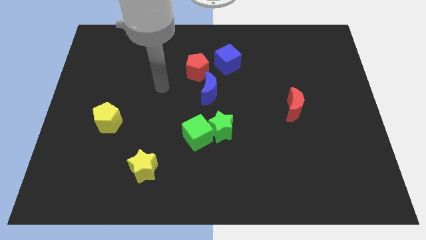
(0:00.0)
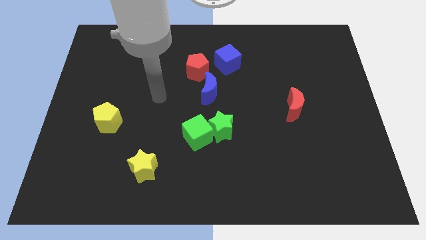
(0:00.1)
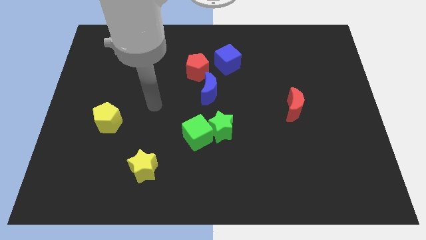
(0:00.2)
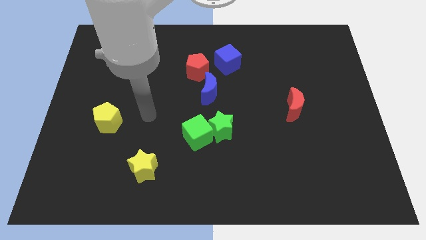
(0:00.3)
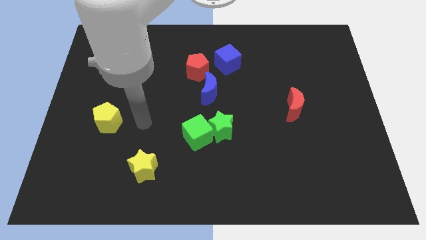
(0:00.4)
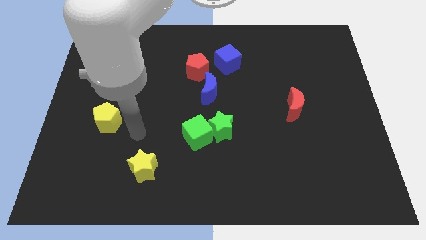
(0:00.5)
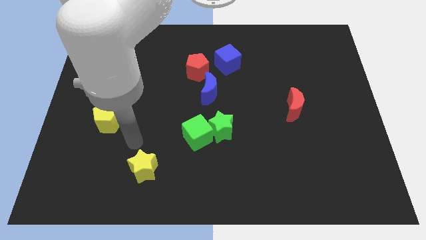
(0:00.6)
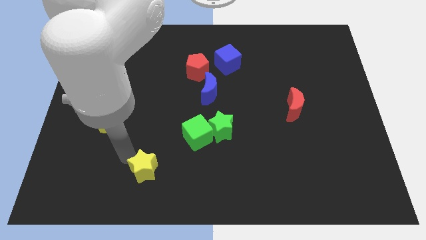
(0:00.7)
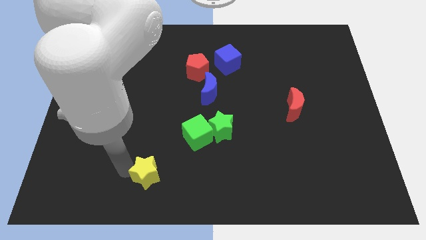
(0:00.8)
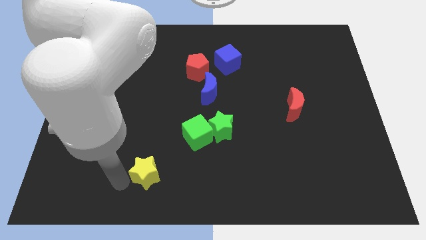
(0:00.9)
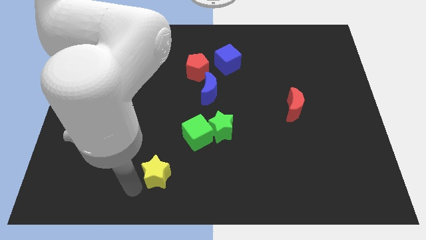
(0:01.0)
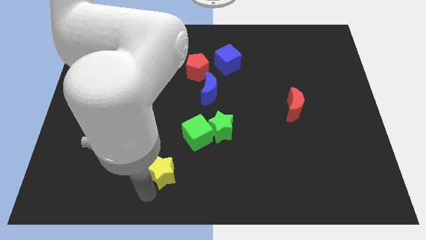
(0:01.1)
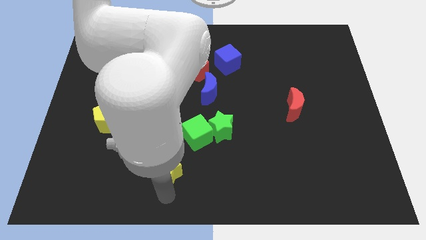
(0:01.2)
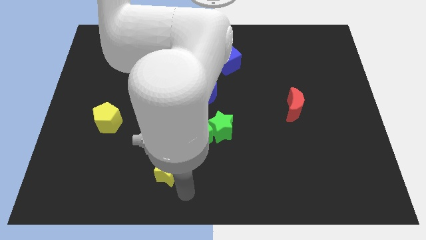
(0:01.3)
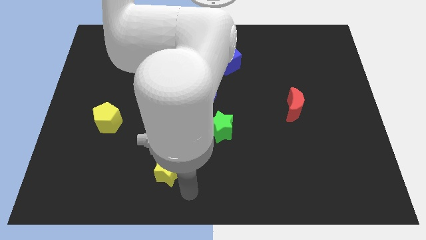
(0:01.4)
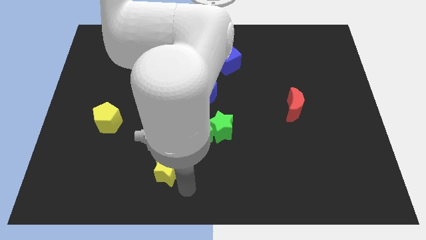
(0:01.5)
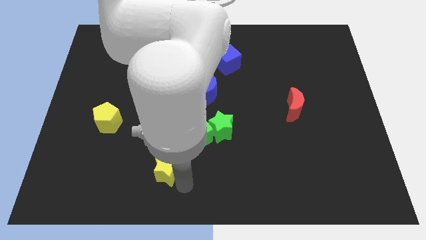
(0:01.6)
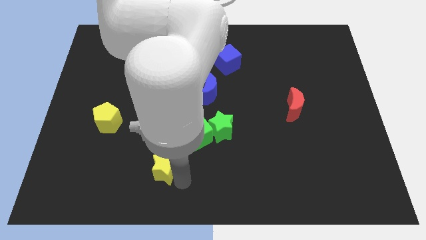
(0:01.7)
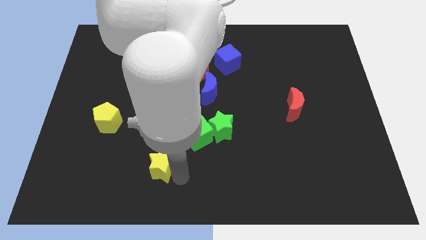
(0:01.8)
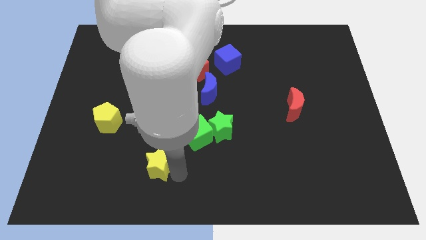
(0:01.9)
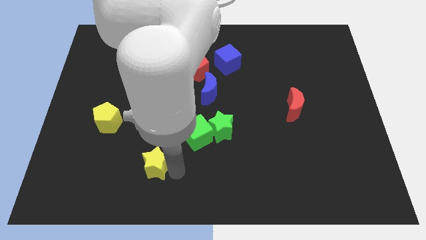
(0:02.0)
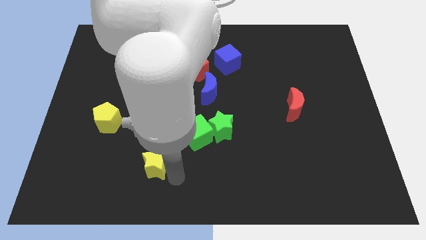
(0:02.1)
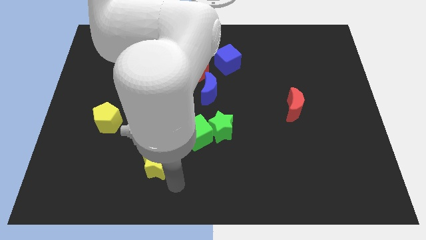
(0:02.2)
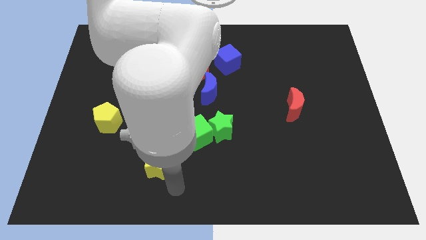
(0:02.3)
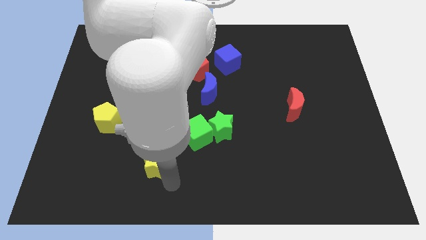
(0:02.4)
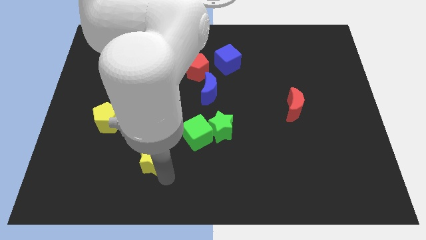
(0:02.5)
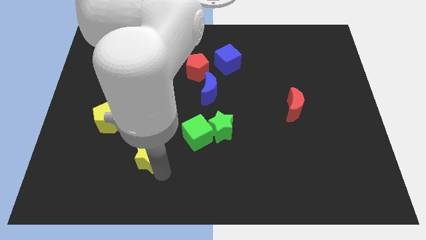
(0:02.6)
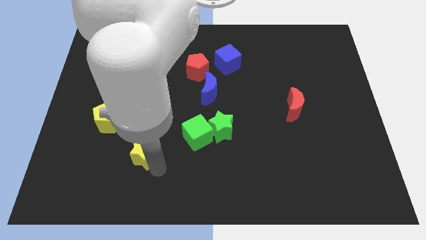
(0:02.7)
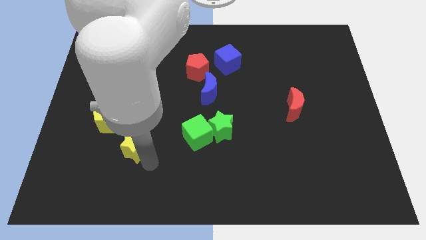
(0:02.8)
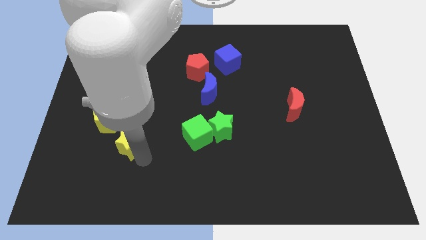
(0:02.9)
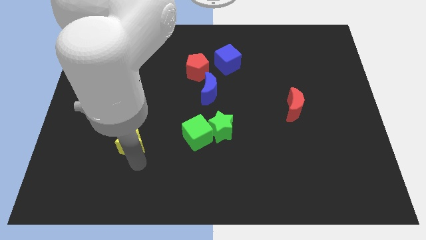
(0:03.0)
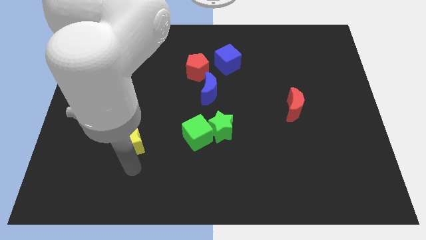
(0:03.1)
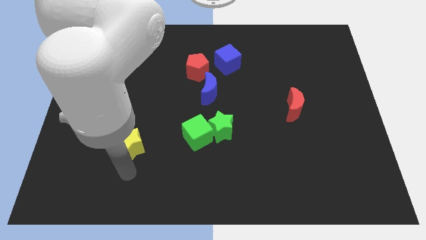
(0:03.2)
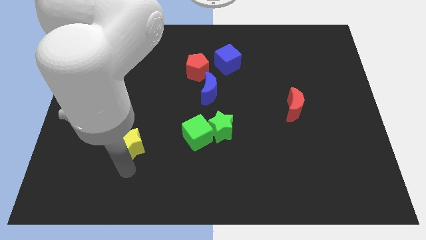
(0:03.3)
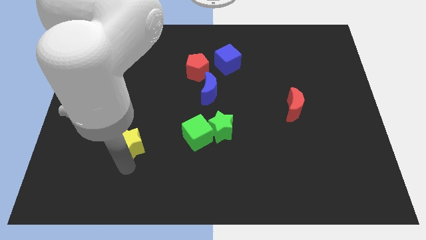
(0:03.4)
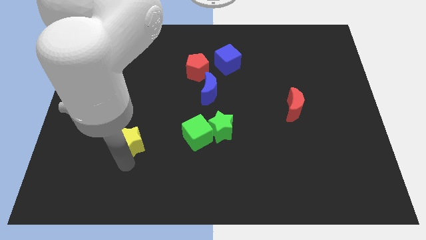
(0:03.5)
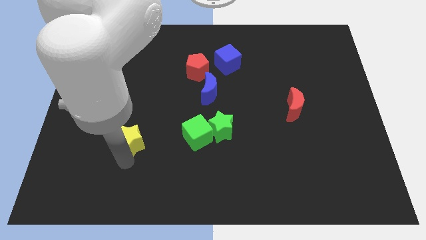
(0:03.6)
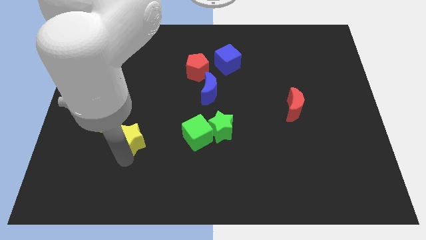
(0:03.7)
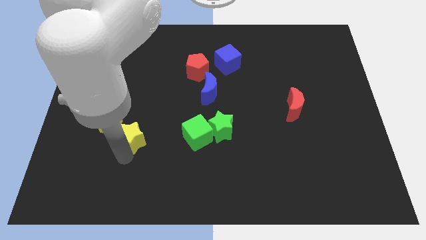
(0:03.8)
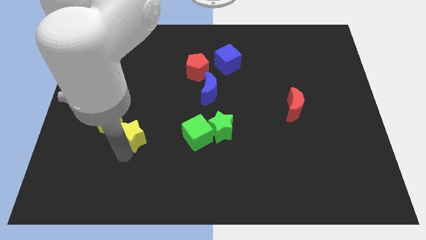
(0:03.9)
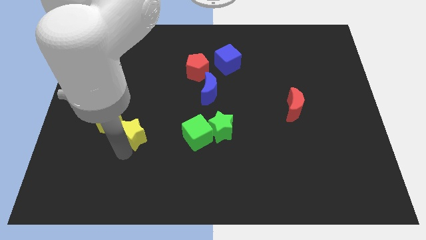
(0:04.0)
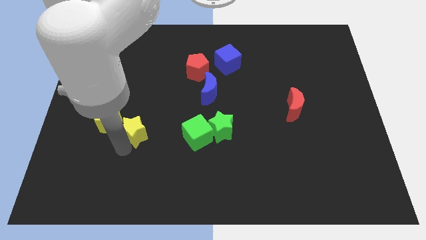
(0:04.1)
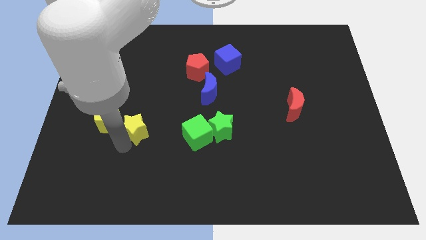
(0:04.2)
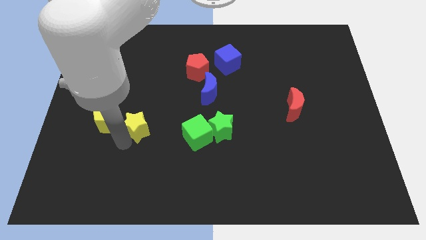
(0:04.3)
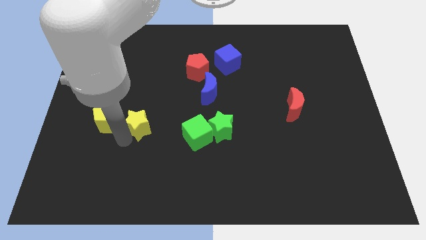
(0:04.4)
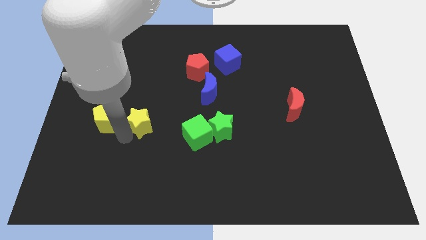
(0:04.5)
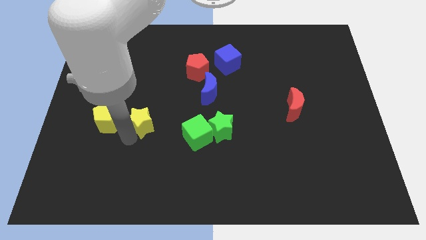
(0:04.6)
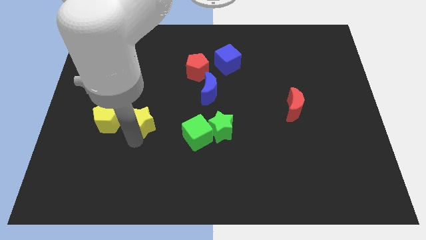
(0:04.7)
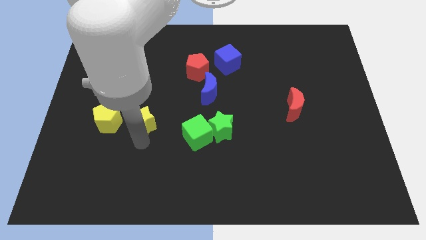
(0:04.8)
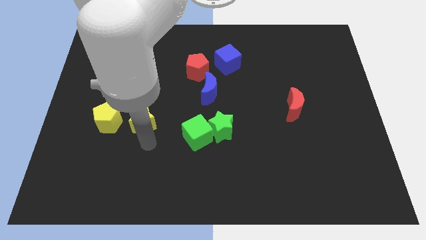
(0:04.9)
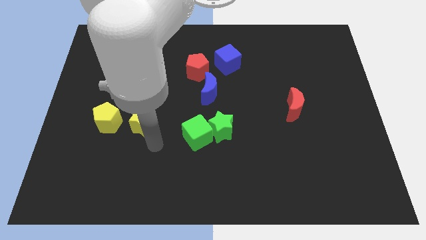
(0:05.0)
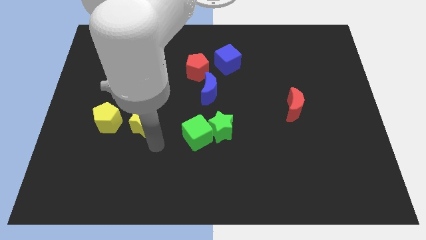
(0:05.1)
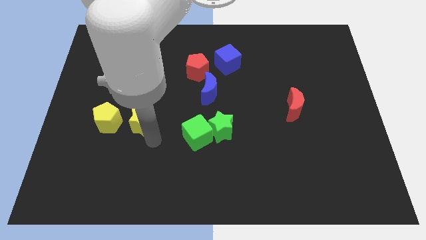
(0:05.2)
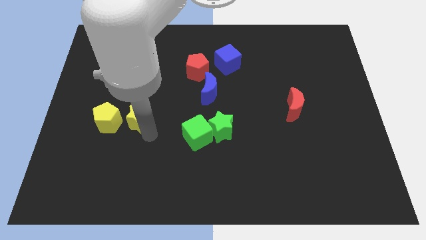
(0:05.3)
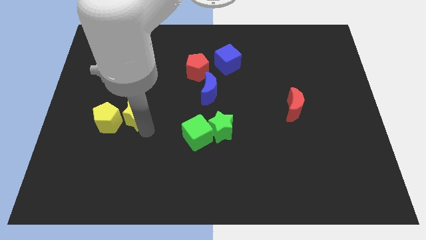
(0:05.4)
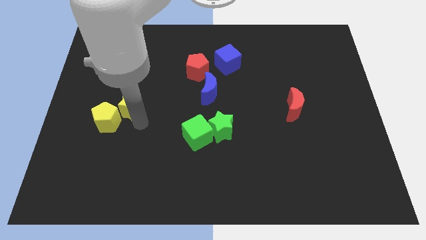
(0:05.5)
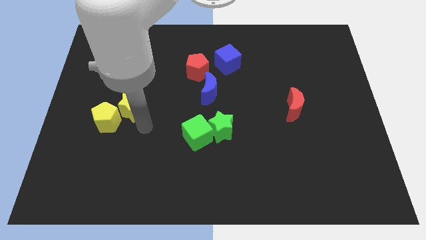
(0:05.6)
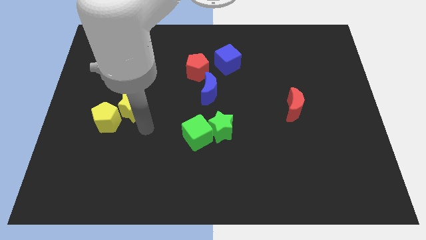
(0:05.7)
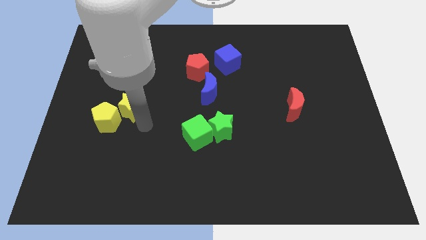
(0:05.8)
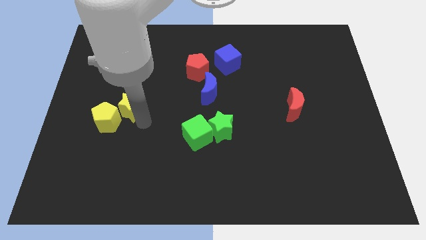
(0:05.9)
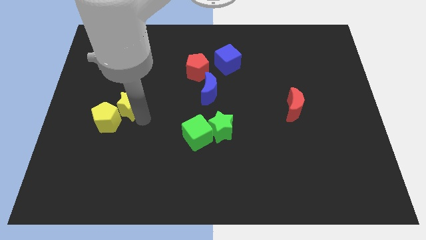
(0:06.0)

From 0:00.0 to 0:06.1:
move the yellow star to the top side of the yellow pentagon

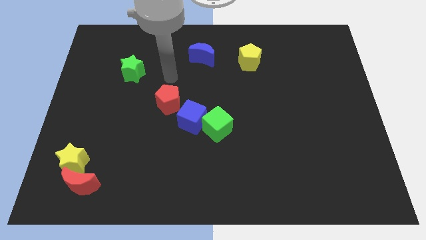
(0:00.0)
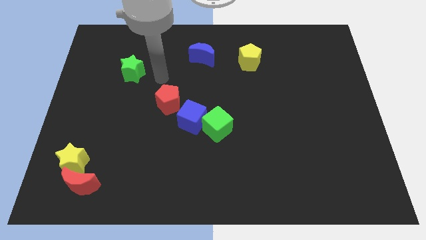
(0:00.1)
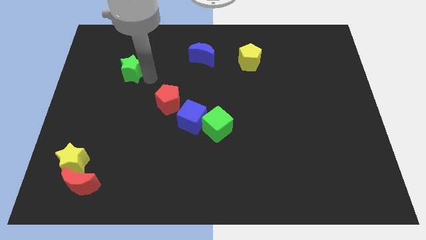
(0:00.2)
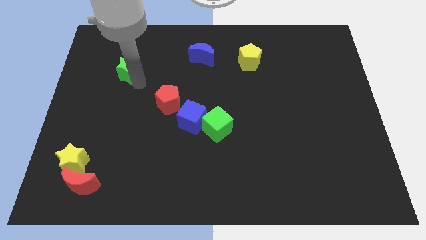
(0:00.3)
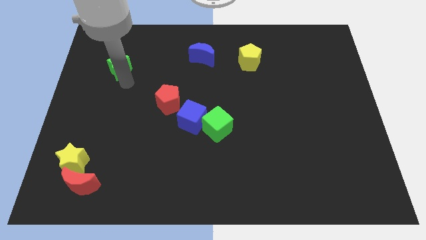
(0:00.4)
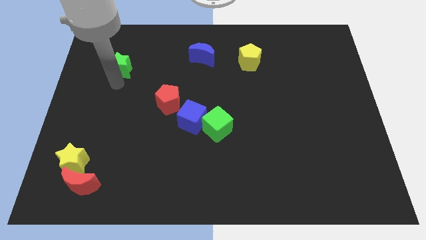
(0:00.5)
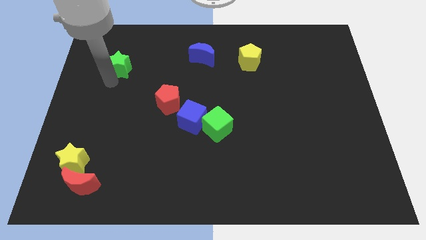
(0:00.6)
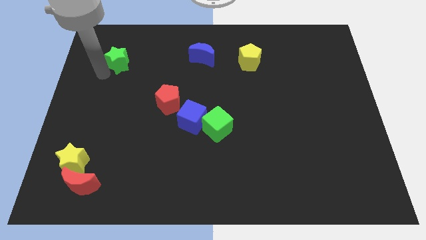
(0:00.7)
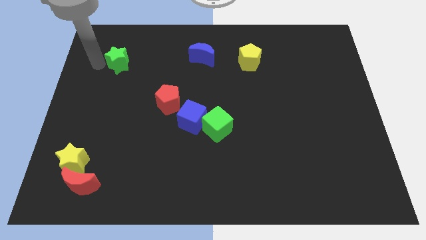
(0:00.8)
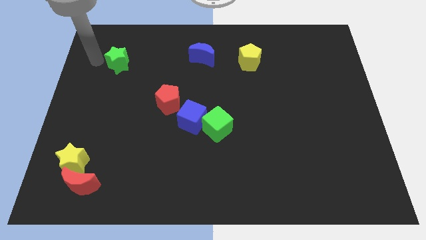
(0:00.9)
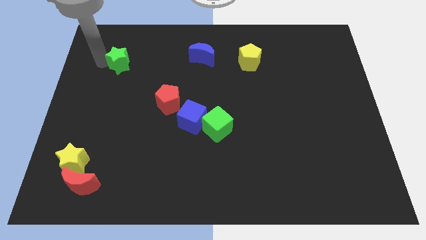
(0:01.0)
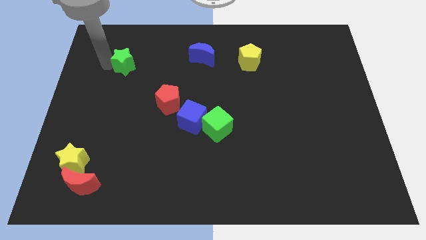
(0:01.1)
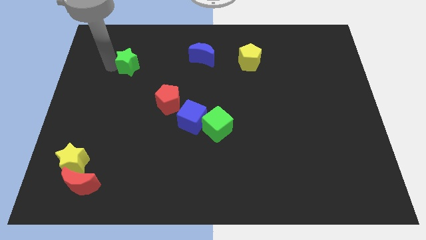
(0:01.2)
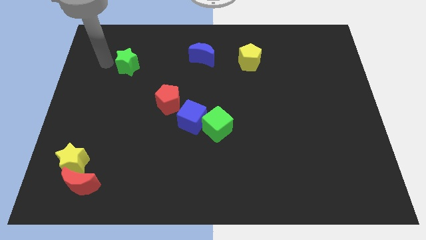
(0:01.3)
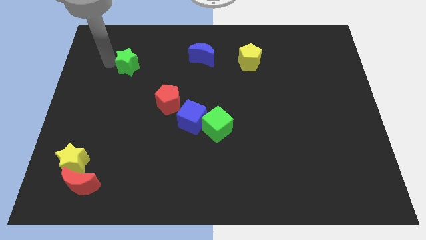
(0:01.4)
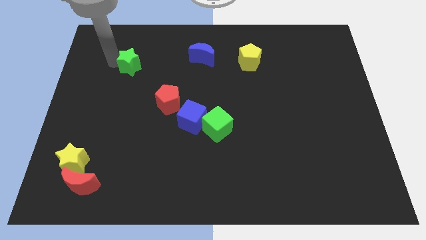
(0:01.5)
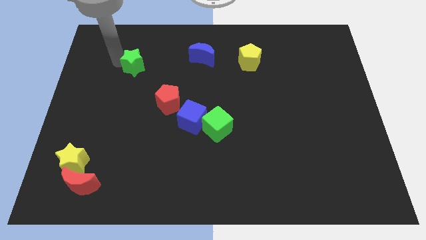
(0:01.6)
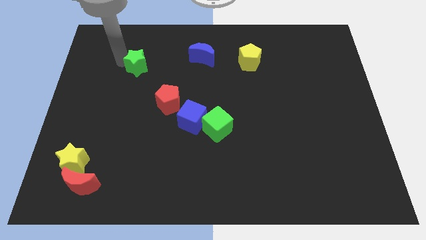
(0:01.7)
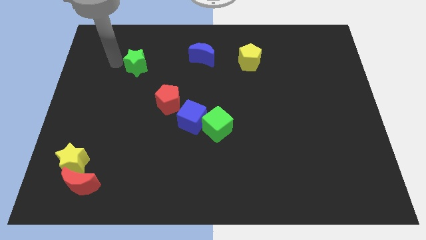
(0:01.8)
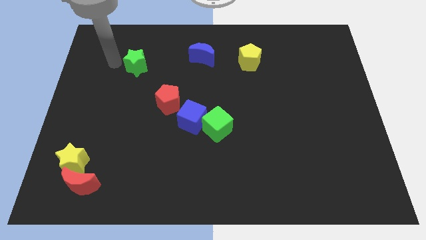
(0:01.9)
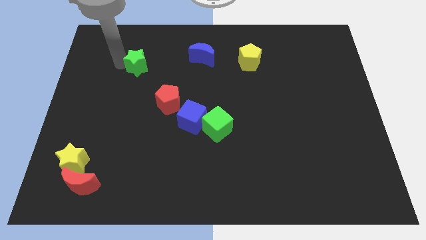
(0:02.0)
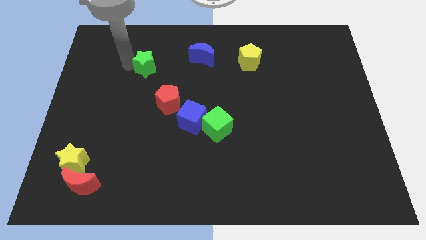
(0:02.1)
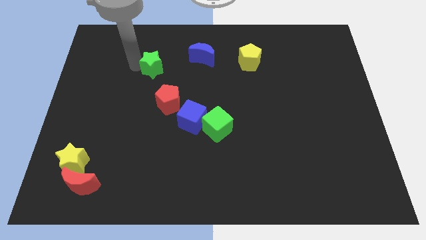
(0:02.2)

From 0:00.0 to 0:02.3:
slide the green star above the red pentagon
